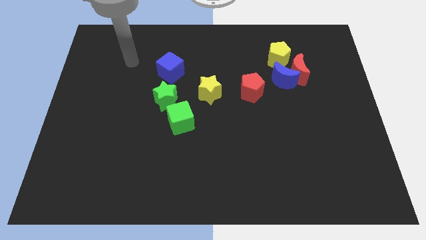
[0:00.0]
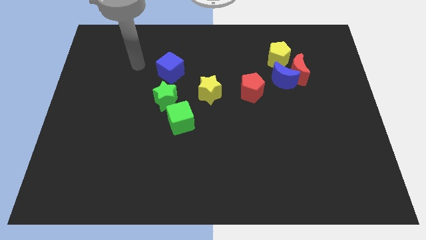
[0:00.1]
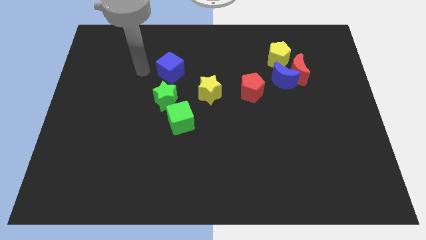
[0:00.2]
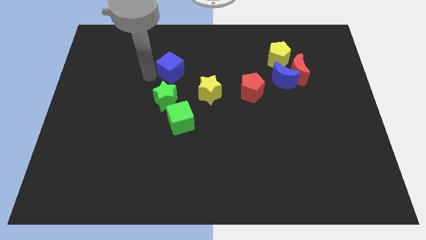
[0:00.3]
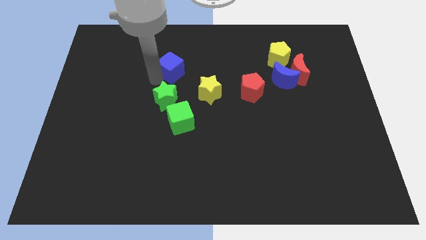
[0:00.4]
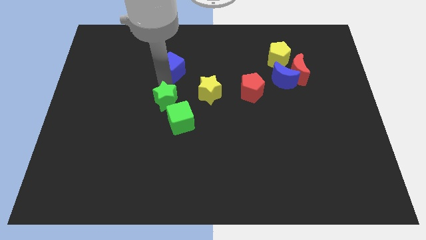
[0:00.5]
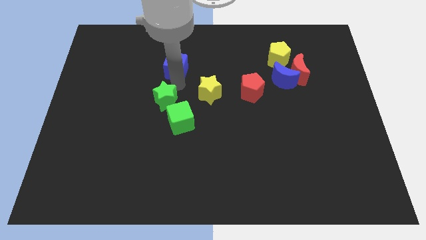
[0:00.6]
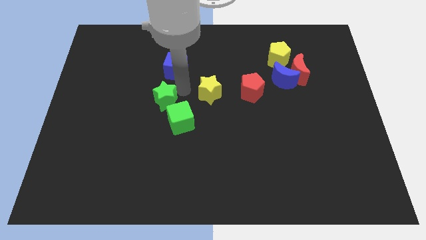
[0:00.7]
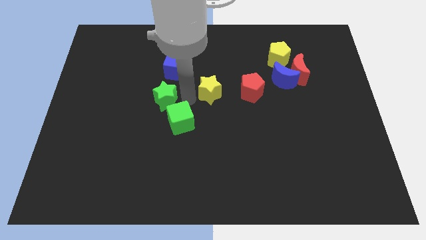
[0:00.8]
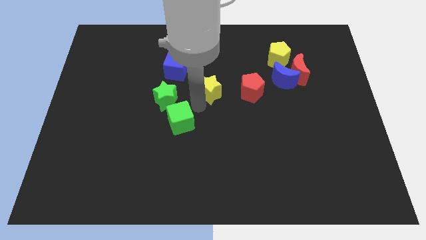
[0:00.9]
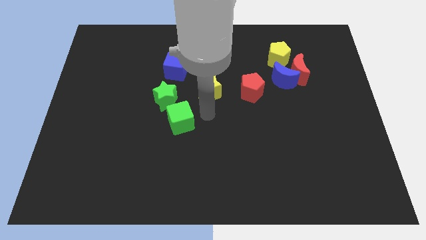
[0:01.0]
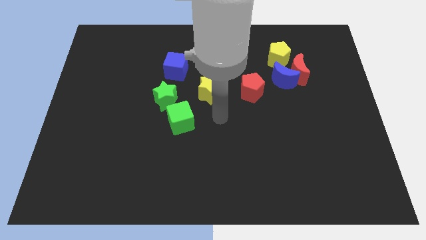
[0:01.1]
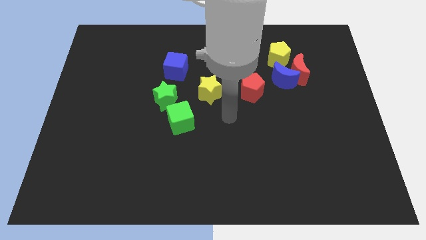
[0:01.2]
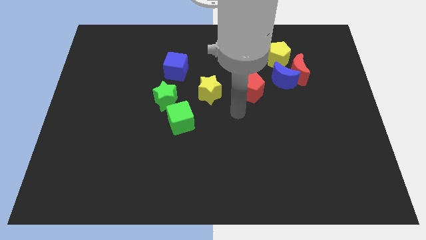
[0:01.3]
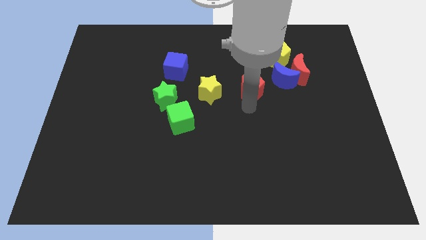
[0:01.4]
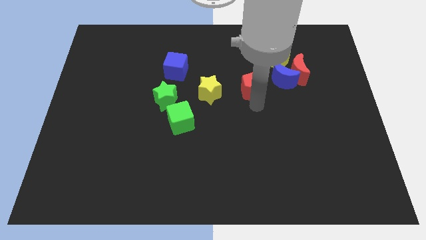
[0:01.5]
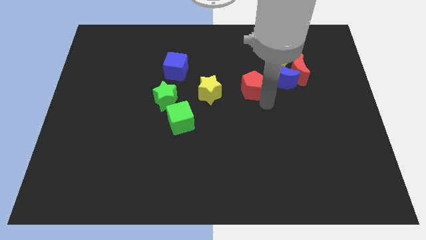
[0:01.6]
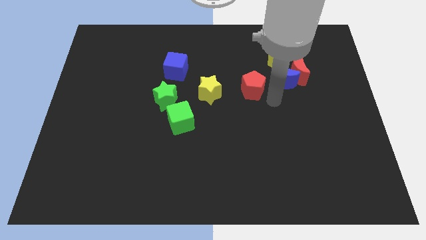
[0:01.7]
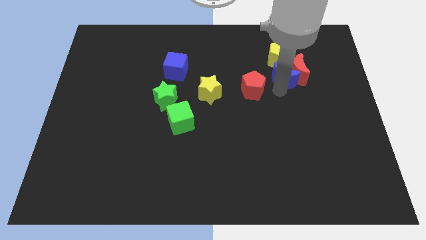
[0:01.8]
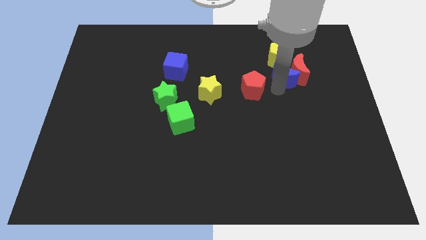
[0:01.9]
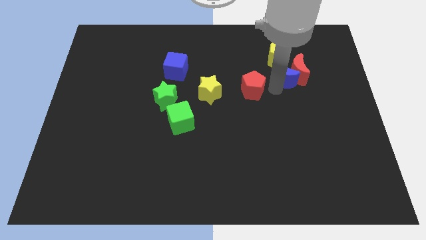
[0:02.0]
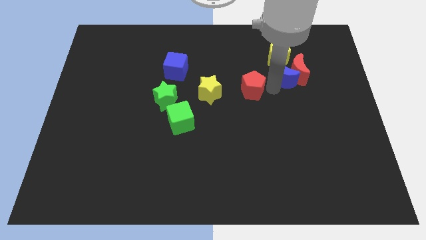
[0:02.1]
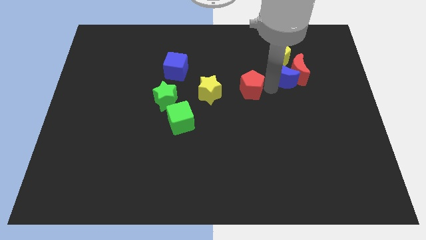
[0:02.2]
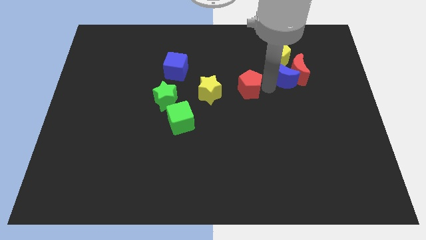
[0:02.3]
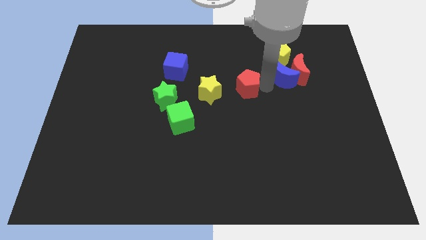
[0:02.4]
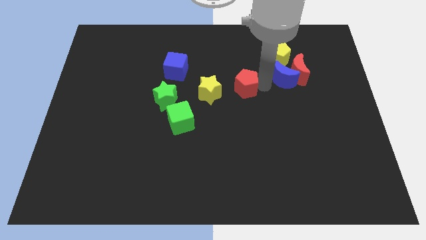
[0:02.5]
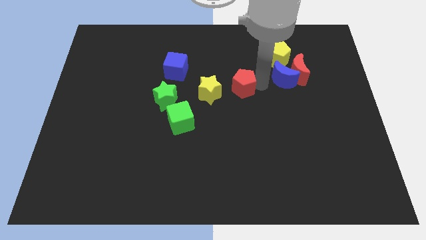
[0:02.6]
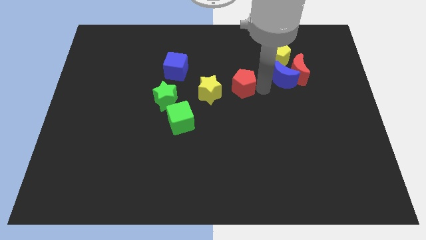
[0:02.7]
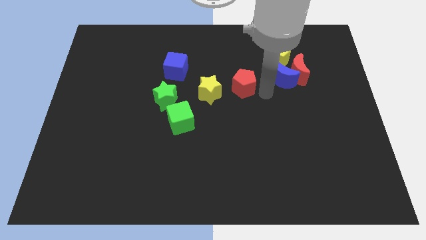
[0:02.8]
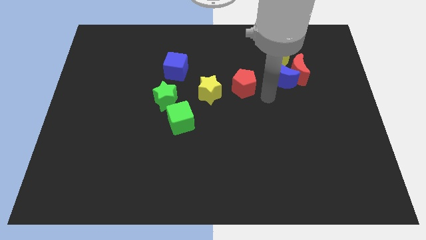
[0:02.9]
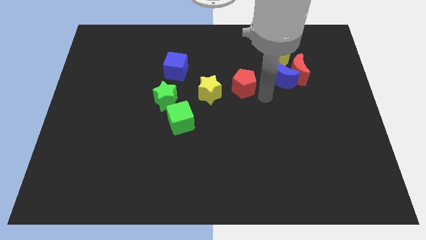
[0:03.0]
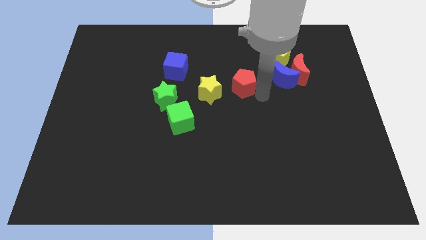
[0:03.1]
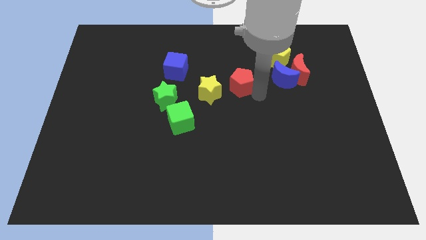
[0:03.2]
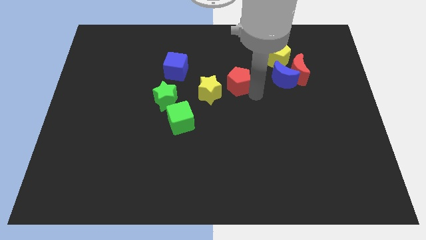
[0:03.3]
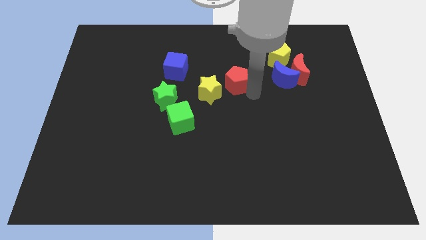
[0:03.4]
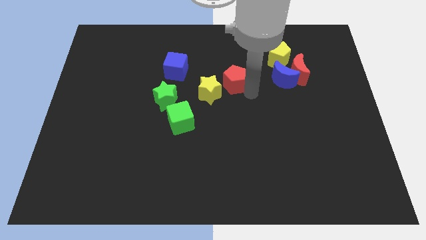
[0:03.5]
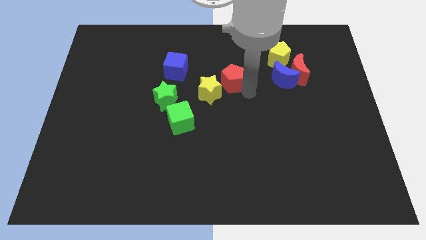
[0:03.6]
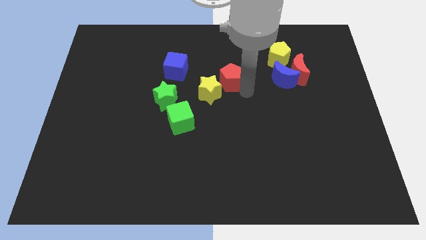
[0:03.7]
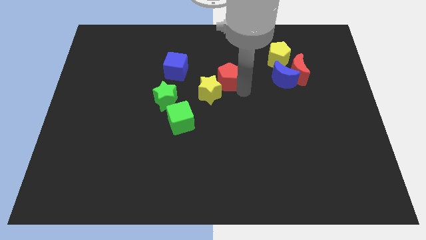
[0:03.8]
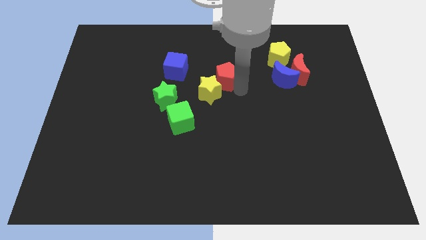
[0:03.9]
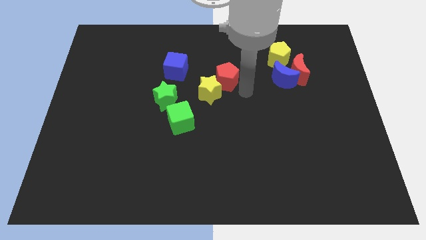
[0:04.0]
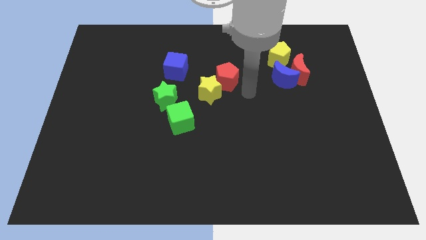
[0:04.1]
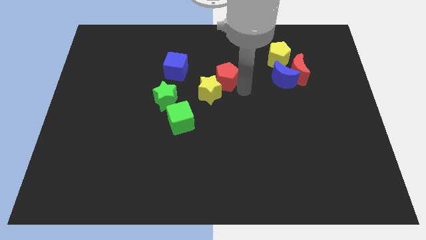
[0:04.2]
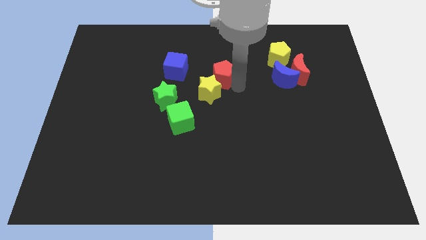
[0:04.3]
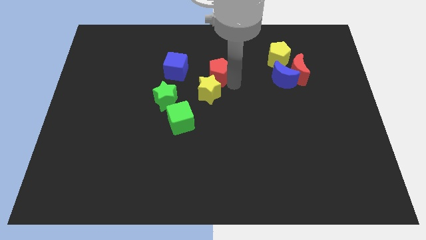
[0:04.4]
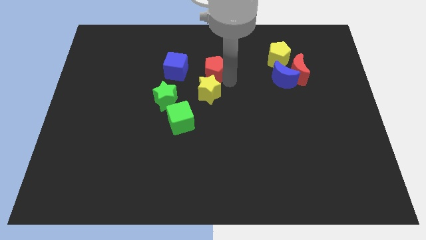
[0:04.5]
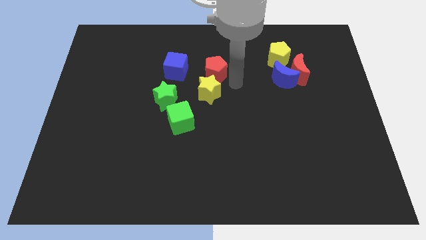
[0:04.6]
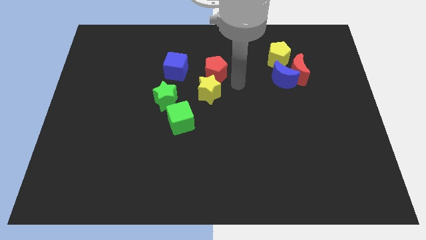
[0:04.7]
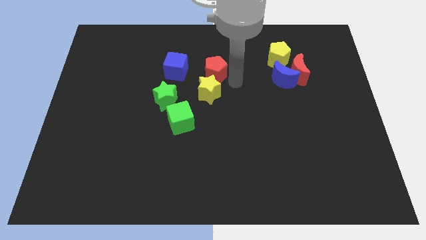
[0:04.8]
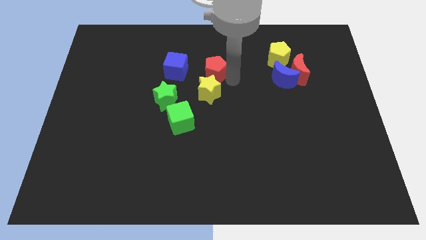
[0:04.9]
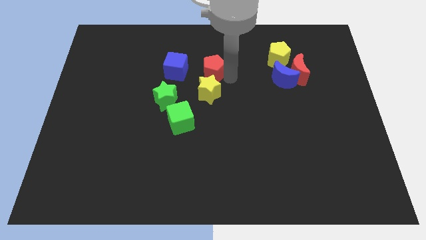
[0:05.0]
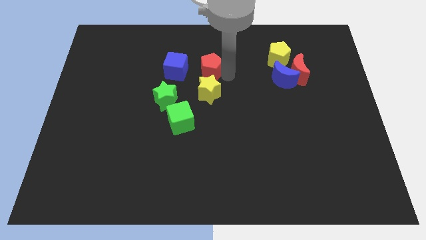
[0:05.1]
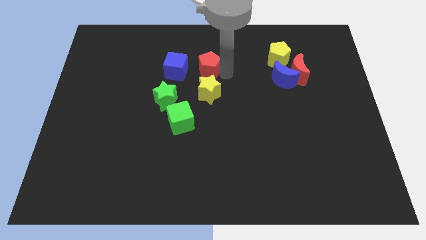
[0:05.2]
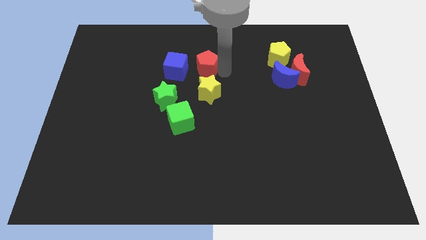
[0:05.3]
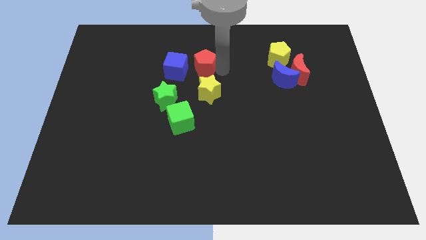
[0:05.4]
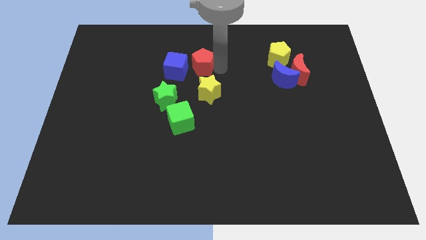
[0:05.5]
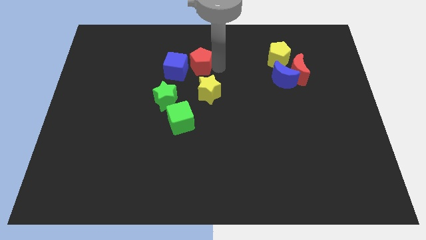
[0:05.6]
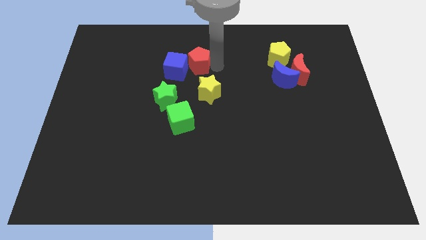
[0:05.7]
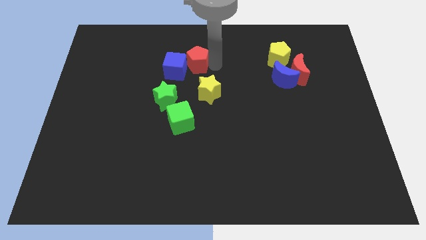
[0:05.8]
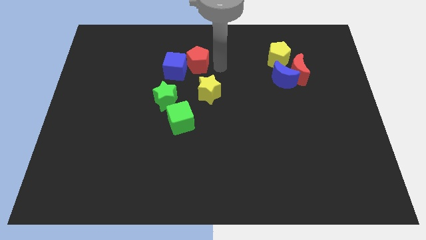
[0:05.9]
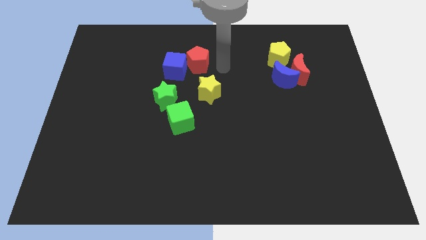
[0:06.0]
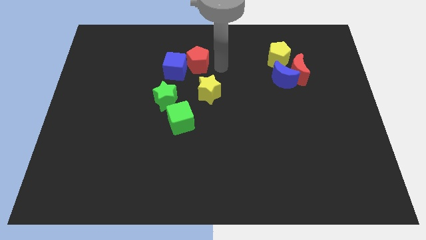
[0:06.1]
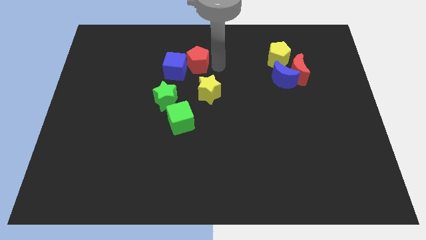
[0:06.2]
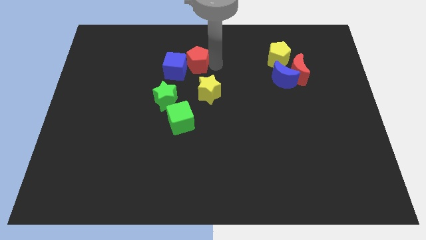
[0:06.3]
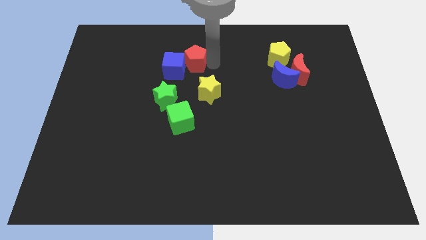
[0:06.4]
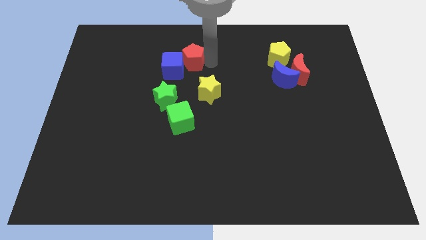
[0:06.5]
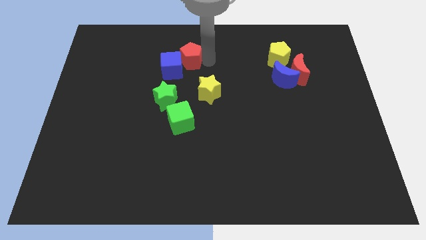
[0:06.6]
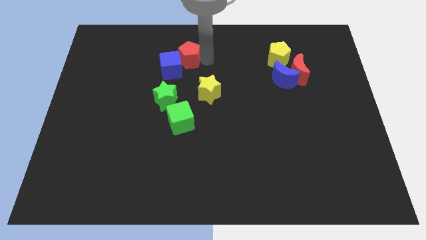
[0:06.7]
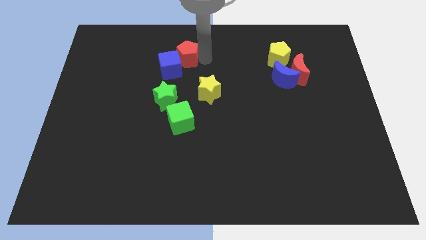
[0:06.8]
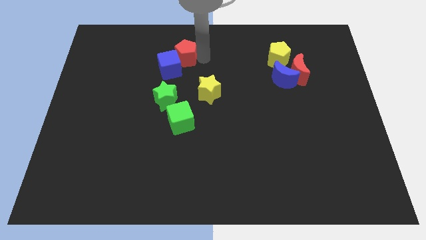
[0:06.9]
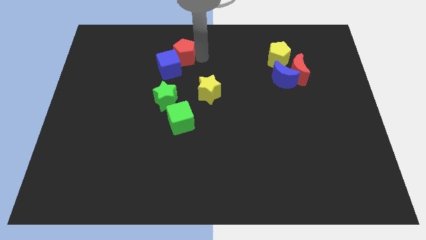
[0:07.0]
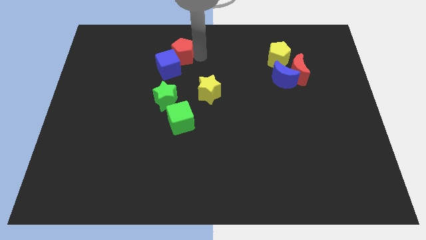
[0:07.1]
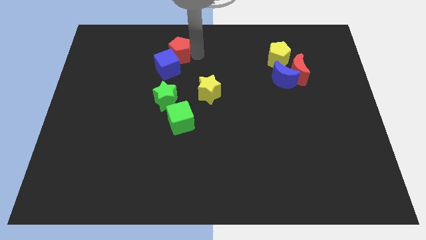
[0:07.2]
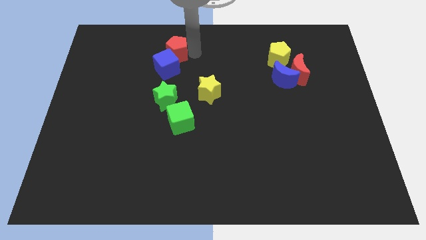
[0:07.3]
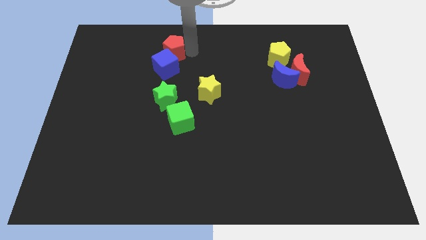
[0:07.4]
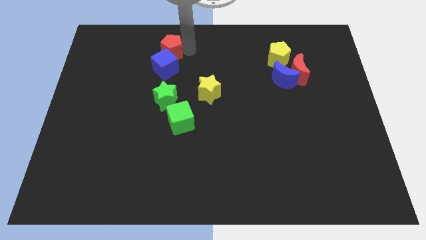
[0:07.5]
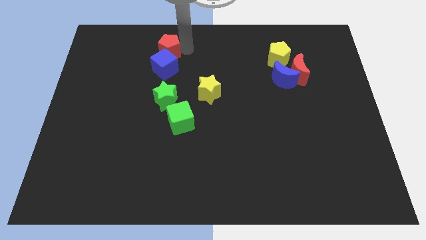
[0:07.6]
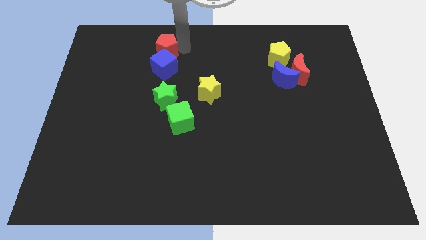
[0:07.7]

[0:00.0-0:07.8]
move the red pentagon to the top left of the blue cube

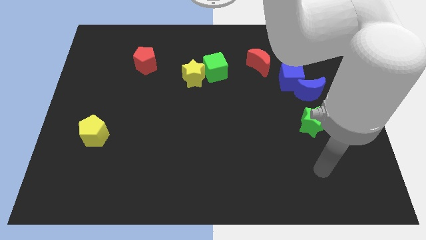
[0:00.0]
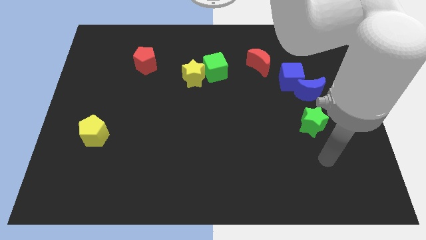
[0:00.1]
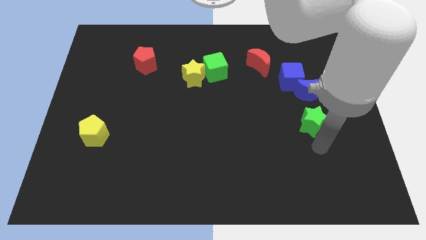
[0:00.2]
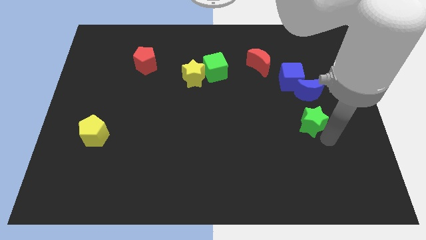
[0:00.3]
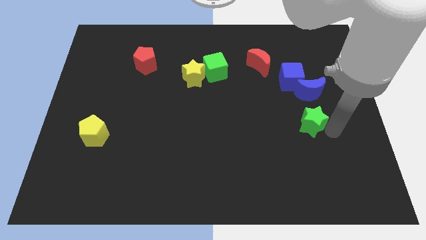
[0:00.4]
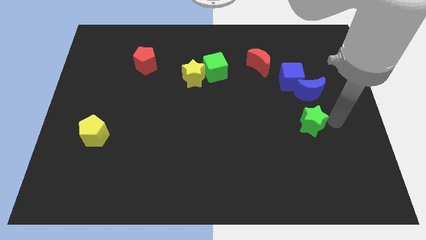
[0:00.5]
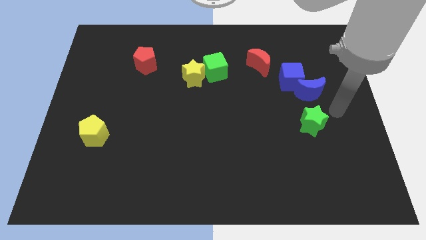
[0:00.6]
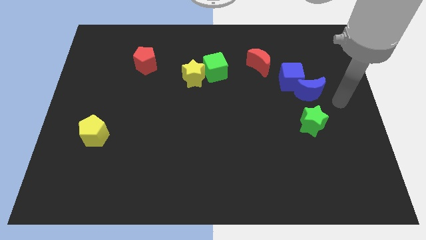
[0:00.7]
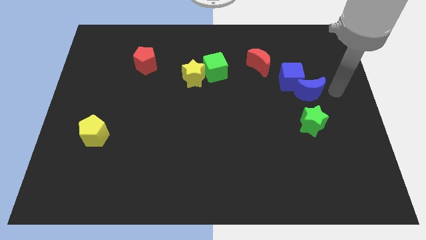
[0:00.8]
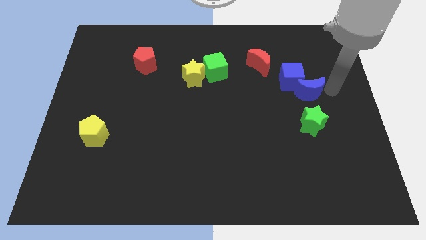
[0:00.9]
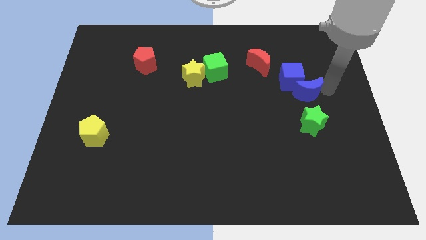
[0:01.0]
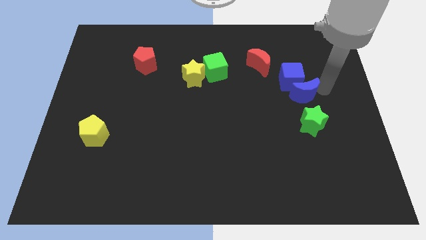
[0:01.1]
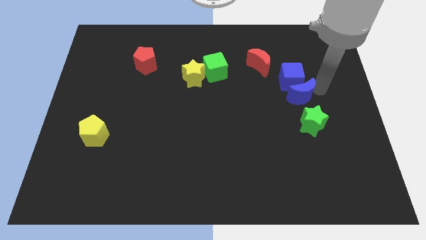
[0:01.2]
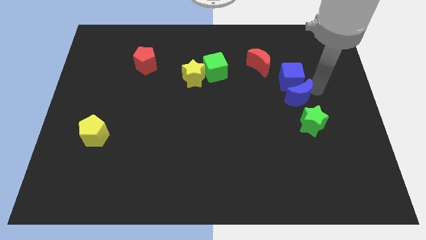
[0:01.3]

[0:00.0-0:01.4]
slide the blue moon to the bottom left of the blue cube
